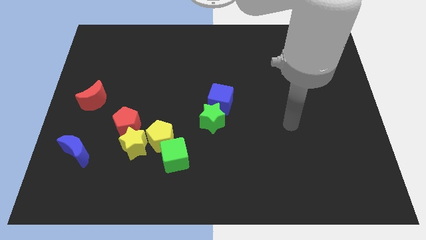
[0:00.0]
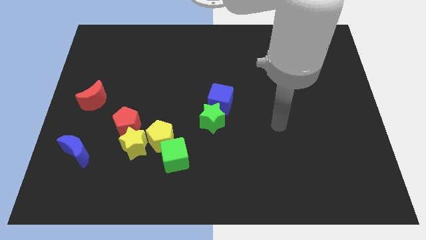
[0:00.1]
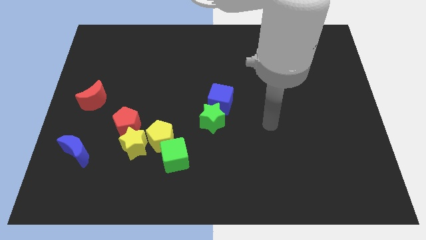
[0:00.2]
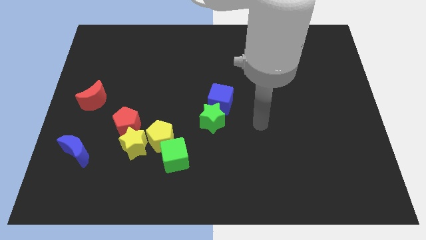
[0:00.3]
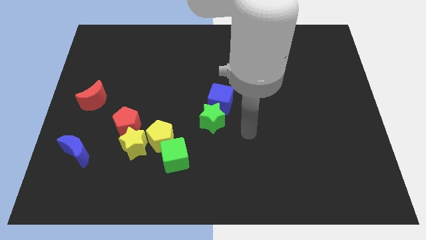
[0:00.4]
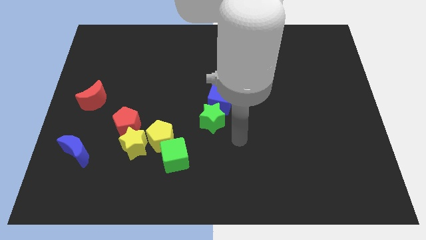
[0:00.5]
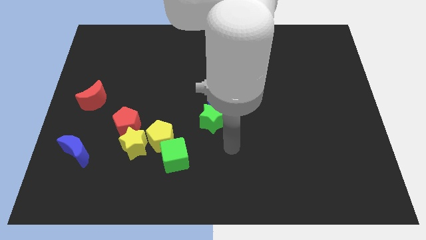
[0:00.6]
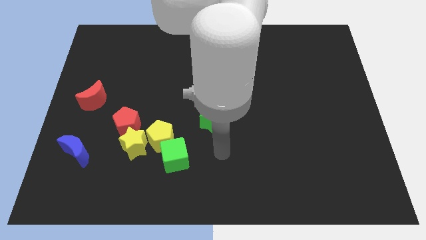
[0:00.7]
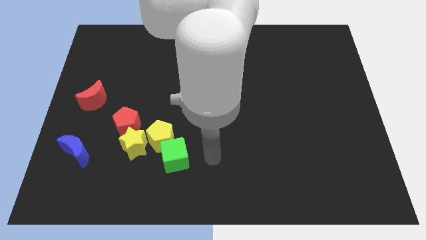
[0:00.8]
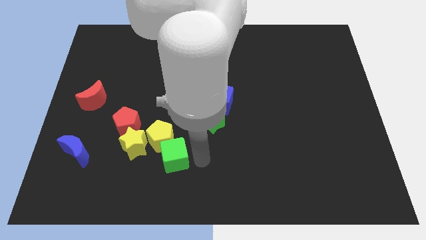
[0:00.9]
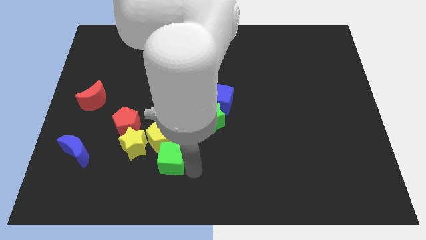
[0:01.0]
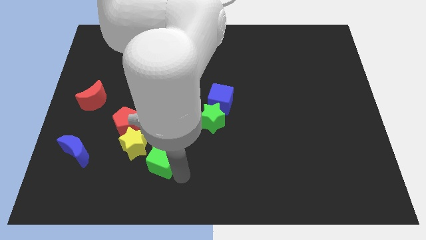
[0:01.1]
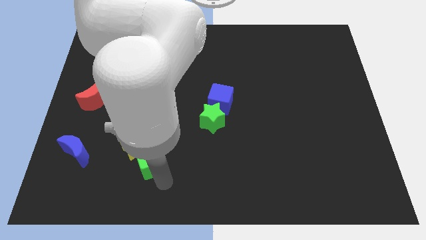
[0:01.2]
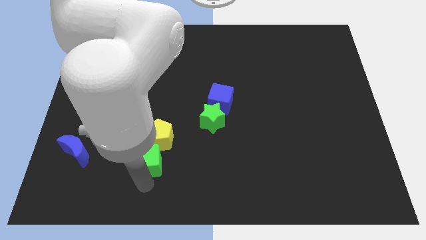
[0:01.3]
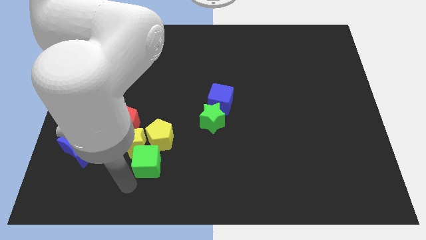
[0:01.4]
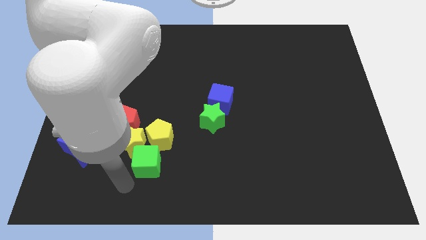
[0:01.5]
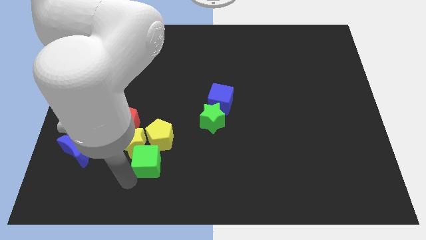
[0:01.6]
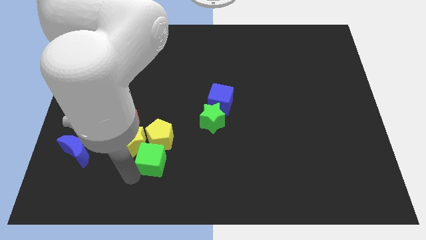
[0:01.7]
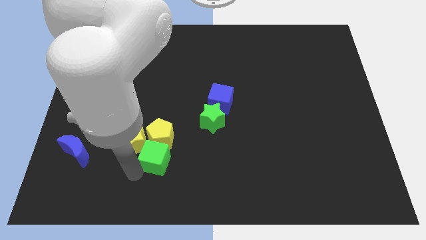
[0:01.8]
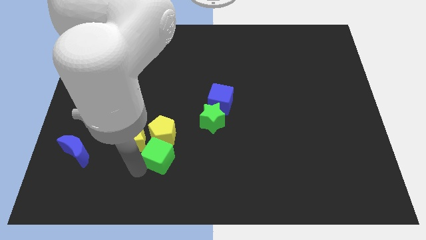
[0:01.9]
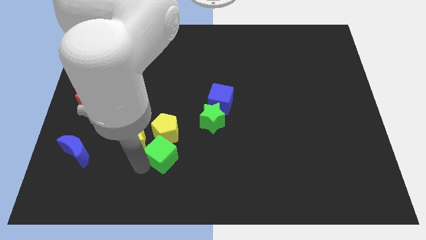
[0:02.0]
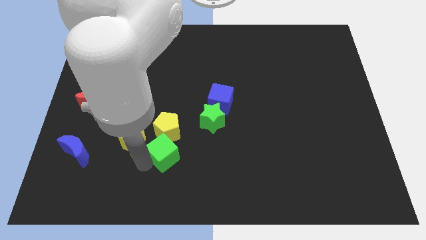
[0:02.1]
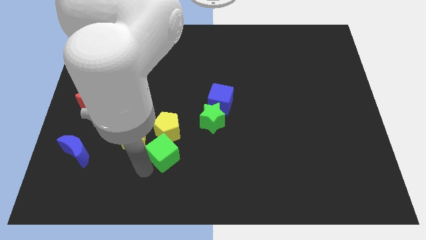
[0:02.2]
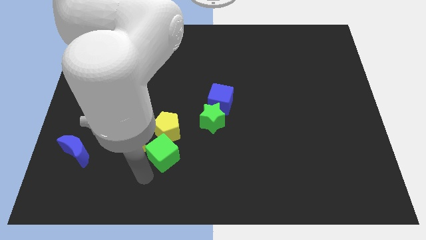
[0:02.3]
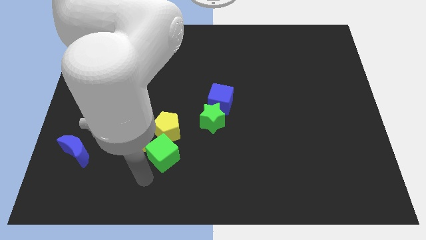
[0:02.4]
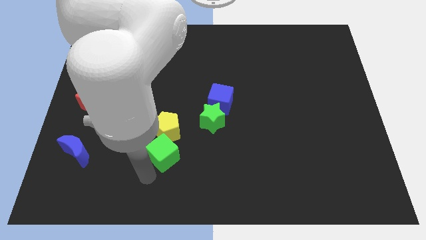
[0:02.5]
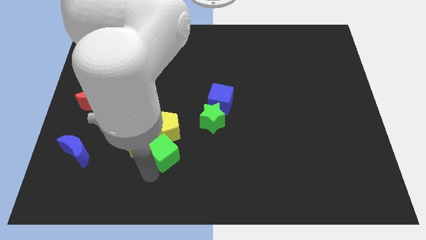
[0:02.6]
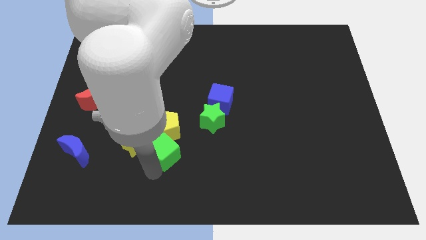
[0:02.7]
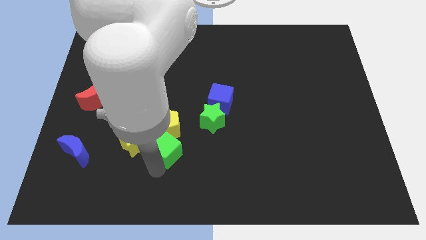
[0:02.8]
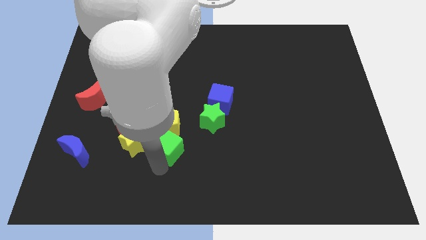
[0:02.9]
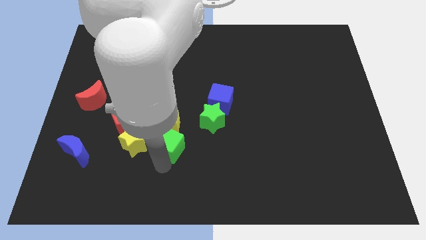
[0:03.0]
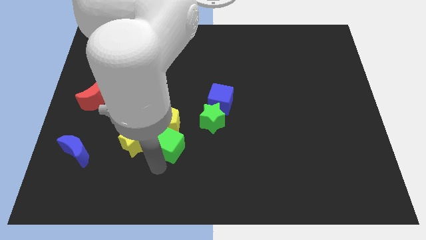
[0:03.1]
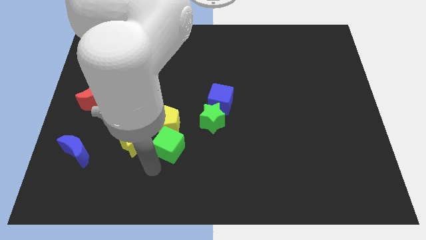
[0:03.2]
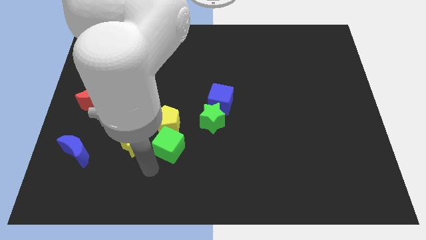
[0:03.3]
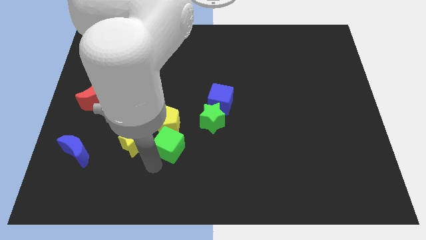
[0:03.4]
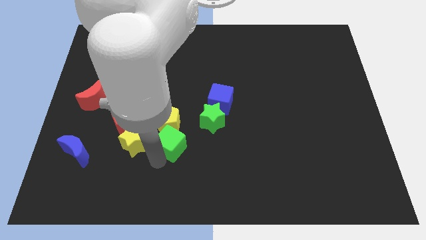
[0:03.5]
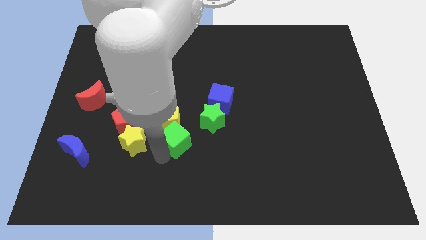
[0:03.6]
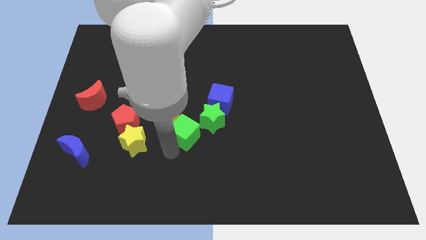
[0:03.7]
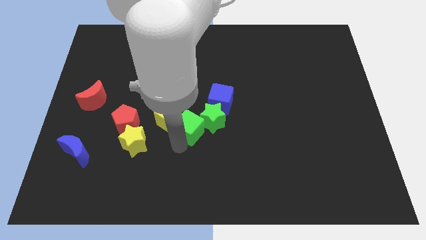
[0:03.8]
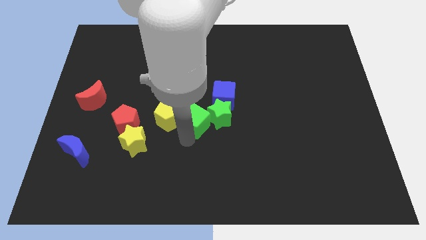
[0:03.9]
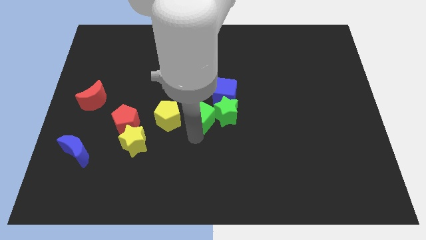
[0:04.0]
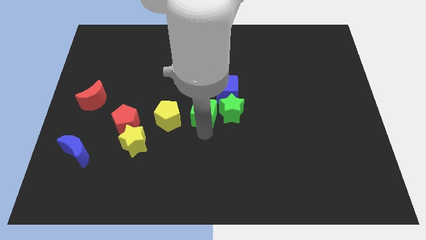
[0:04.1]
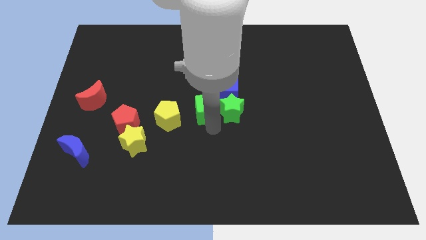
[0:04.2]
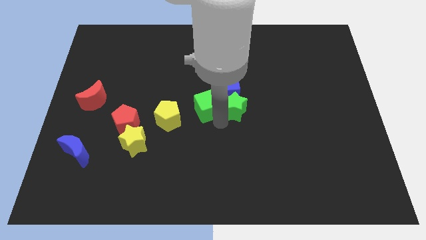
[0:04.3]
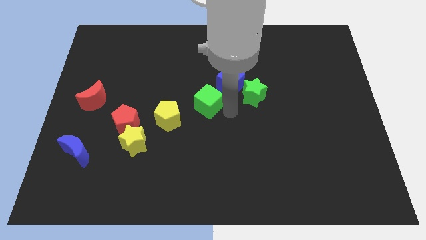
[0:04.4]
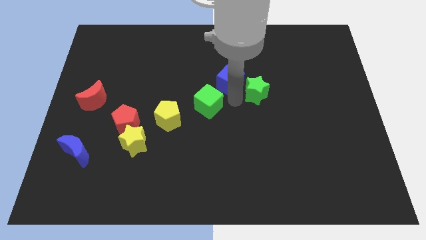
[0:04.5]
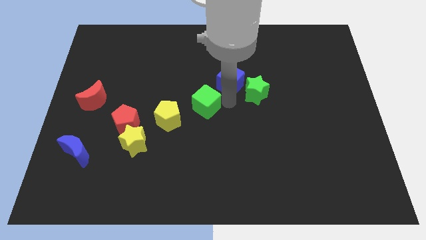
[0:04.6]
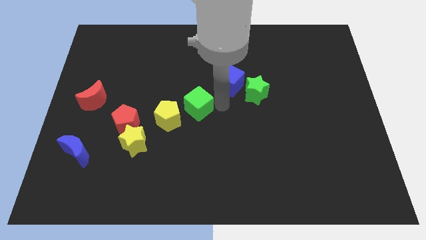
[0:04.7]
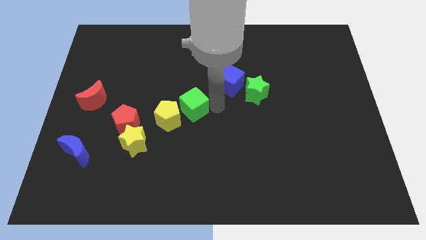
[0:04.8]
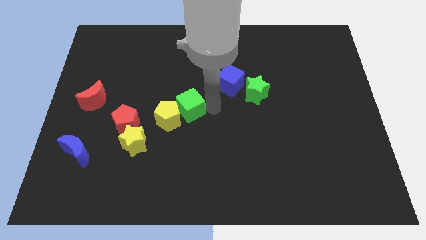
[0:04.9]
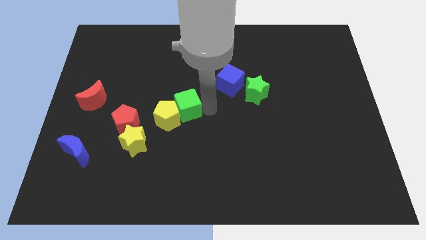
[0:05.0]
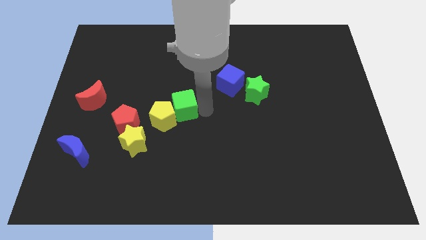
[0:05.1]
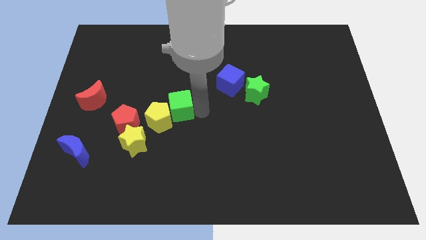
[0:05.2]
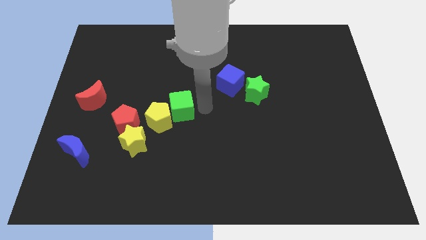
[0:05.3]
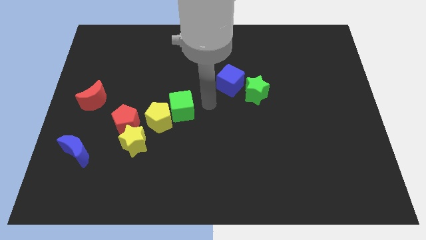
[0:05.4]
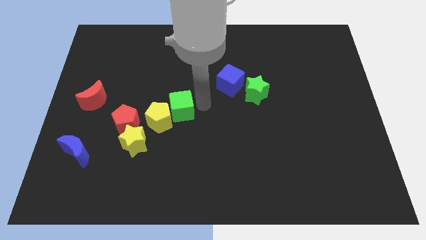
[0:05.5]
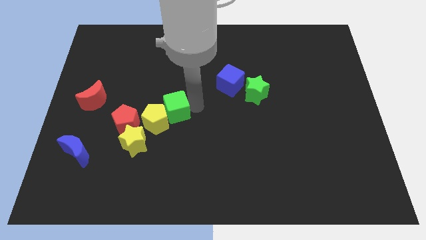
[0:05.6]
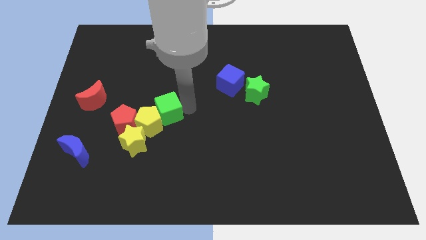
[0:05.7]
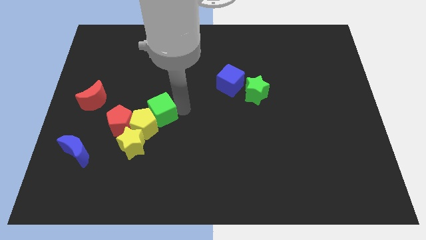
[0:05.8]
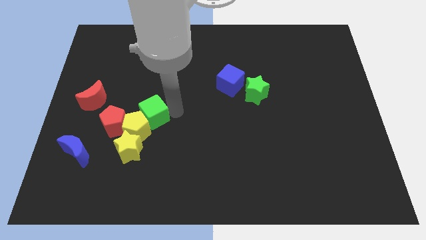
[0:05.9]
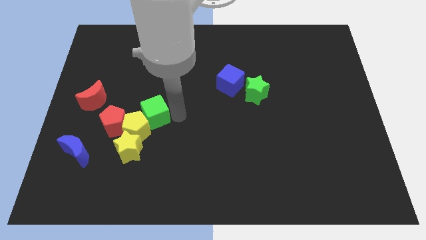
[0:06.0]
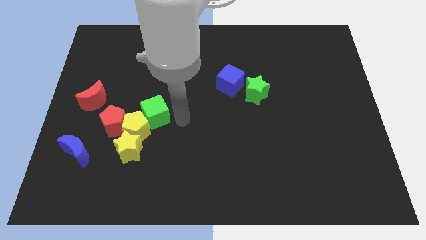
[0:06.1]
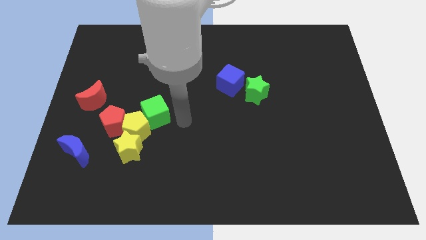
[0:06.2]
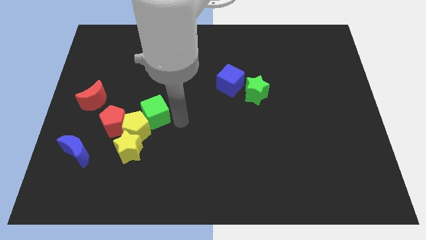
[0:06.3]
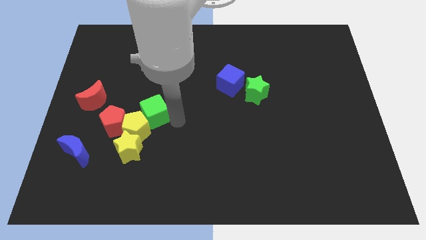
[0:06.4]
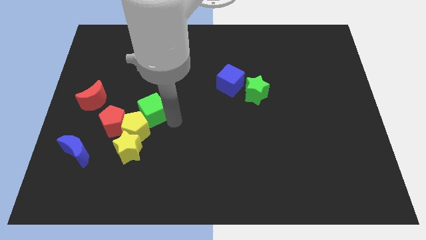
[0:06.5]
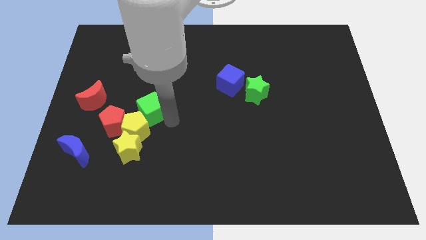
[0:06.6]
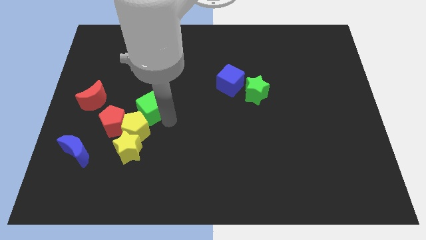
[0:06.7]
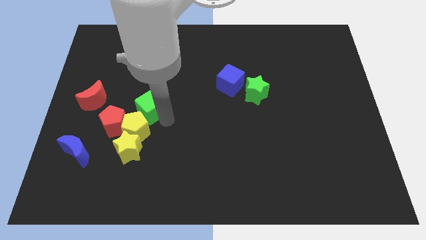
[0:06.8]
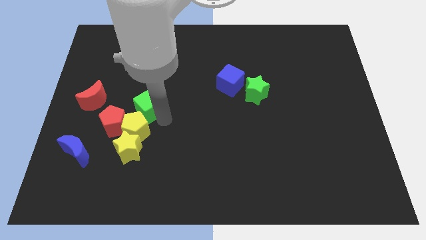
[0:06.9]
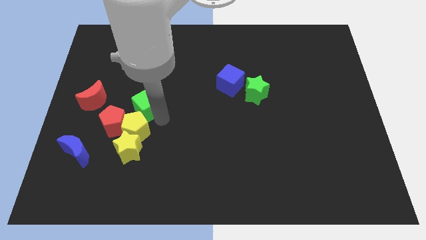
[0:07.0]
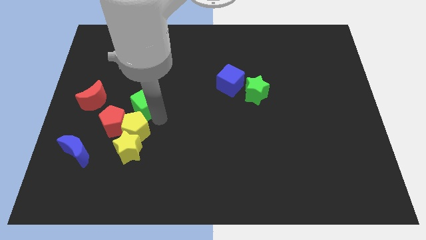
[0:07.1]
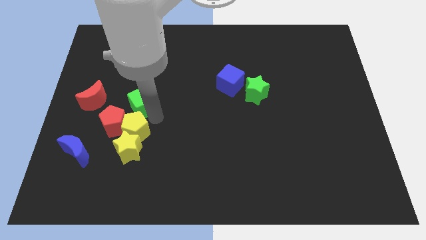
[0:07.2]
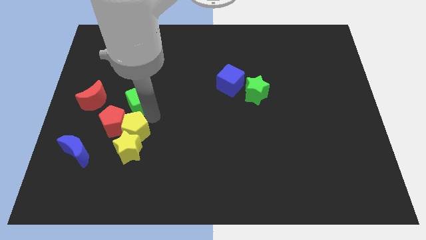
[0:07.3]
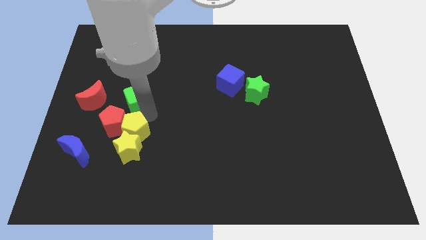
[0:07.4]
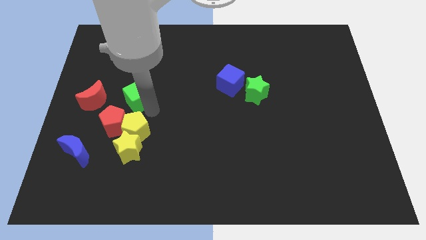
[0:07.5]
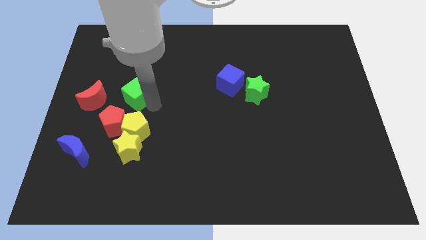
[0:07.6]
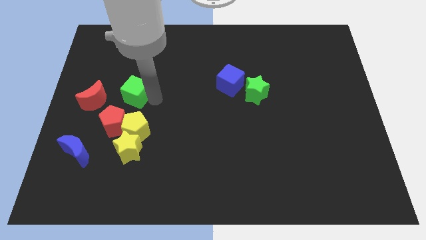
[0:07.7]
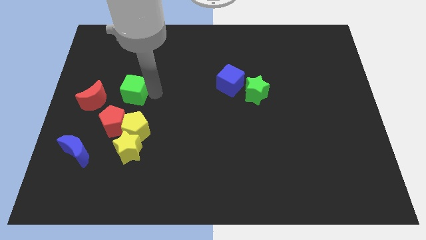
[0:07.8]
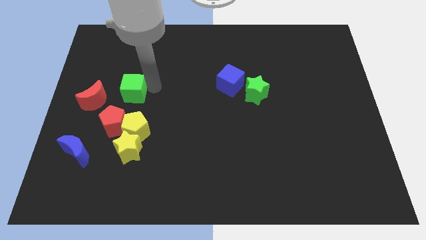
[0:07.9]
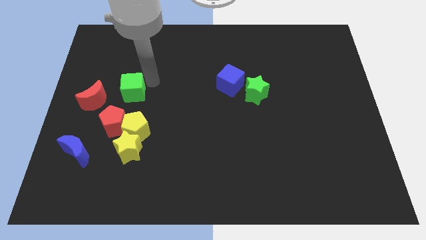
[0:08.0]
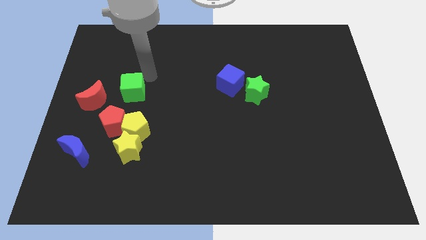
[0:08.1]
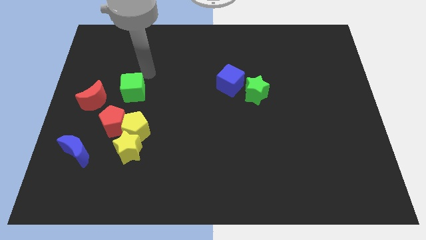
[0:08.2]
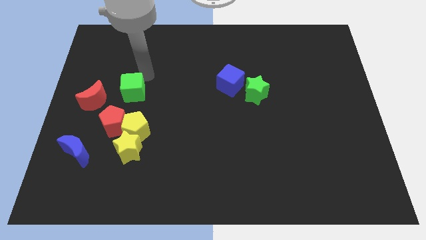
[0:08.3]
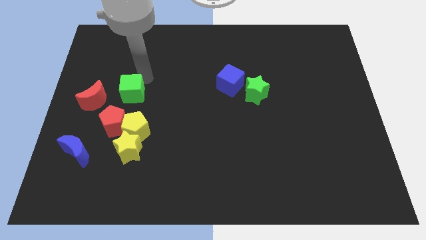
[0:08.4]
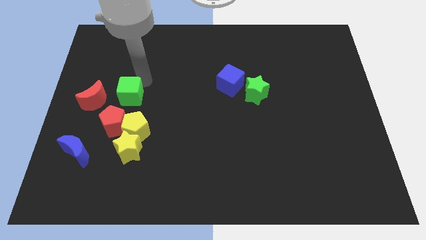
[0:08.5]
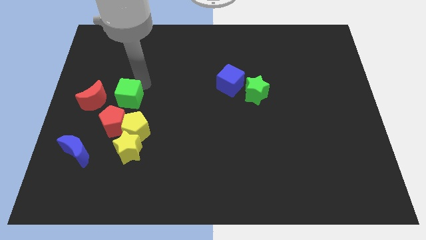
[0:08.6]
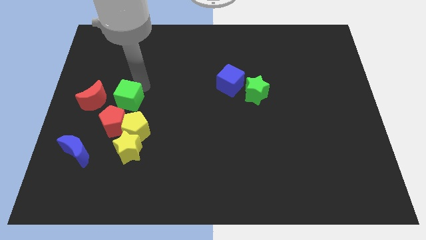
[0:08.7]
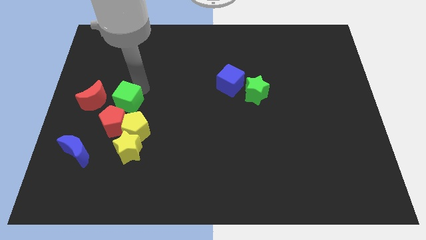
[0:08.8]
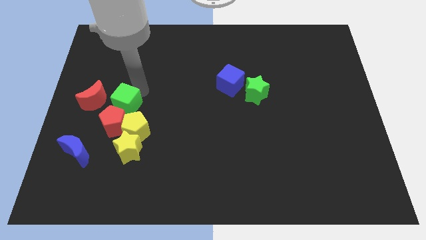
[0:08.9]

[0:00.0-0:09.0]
push the green cube to the bottom right side of the red moon
